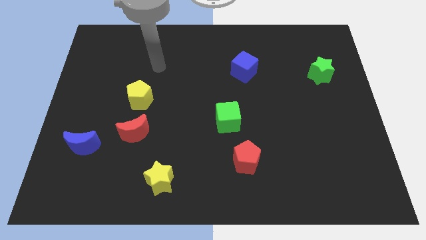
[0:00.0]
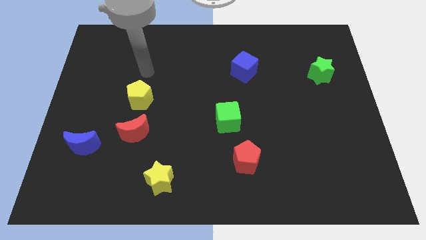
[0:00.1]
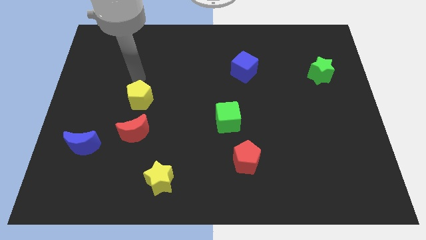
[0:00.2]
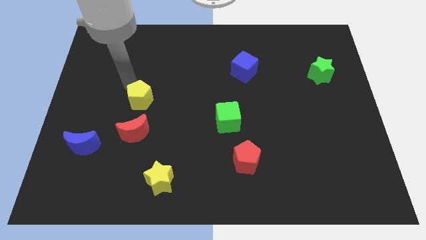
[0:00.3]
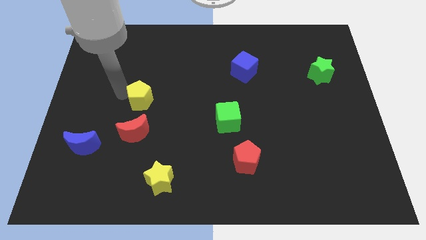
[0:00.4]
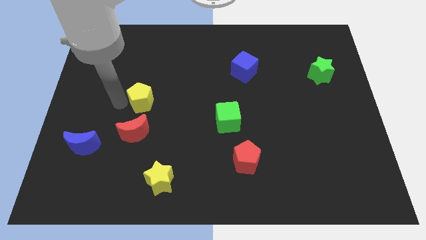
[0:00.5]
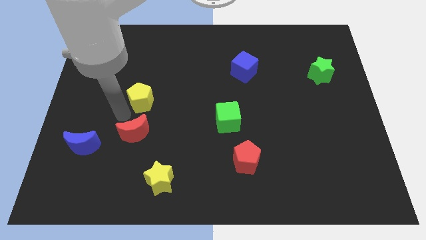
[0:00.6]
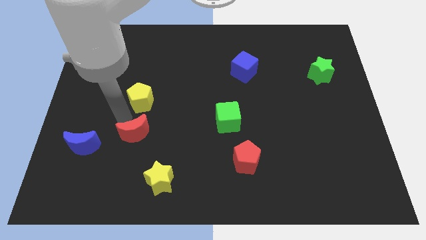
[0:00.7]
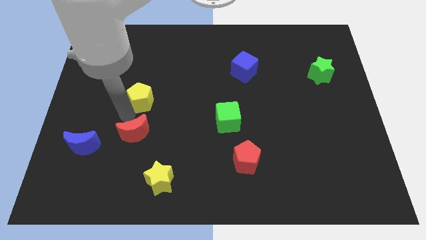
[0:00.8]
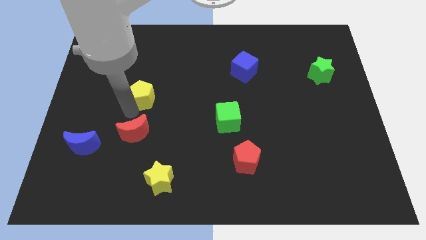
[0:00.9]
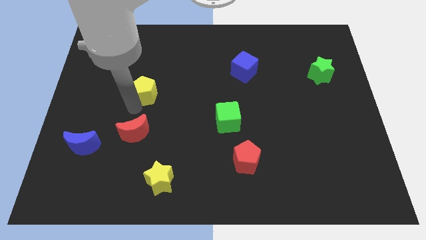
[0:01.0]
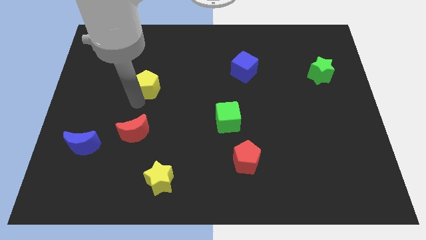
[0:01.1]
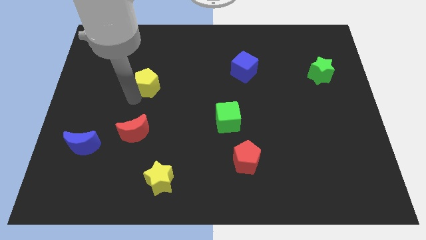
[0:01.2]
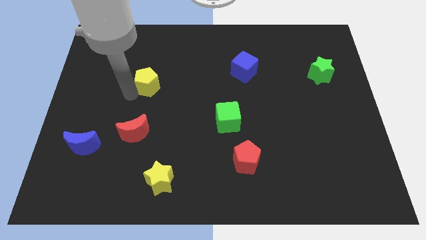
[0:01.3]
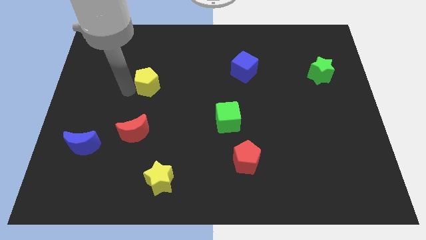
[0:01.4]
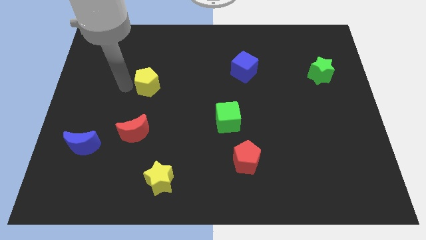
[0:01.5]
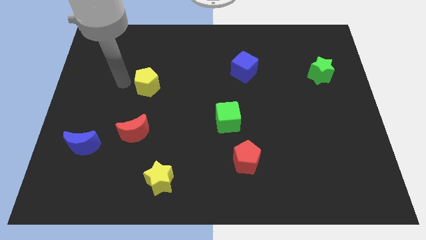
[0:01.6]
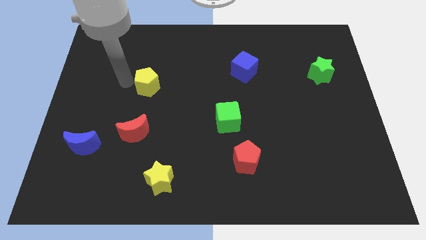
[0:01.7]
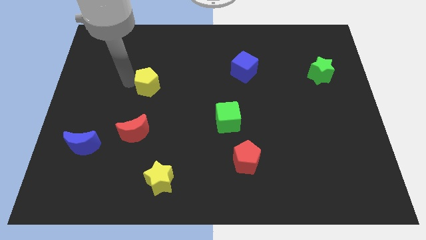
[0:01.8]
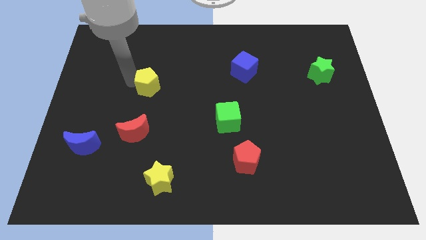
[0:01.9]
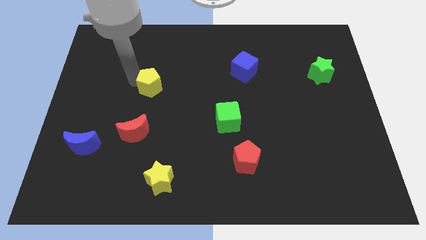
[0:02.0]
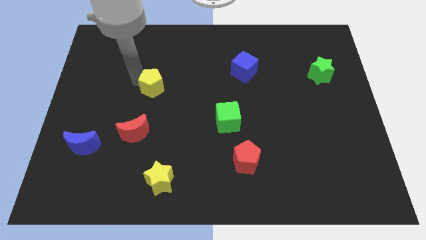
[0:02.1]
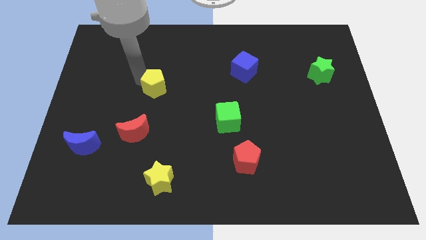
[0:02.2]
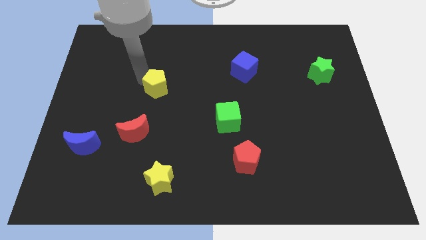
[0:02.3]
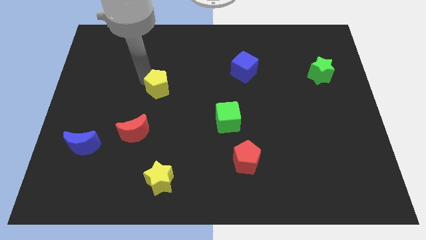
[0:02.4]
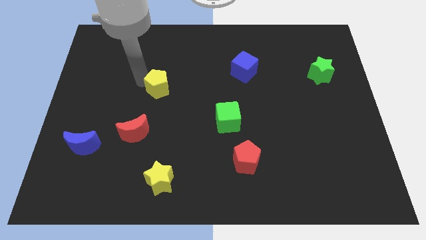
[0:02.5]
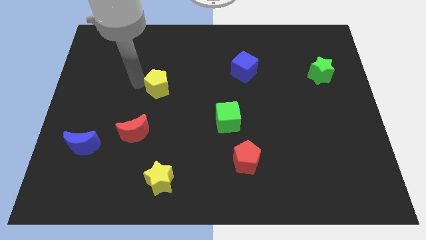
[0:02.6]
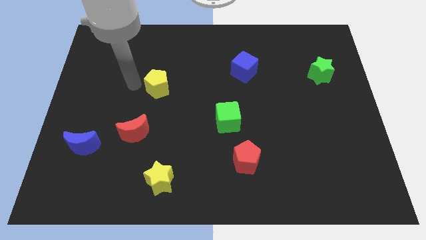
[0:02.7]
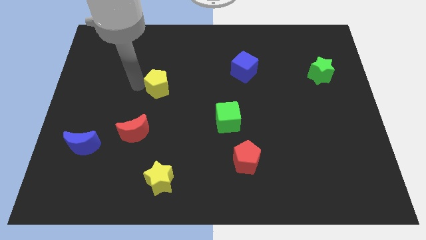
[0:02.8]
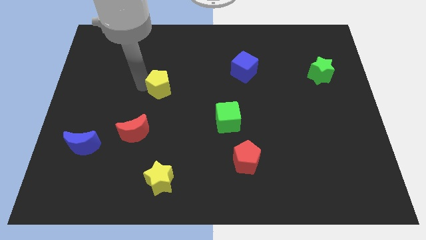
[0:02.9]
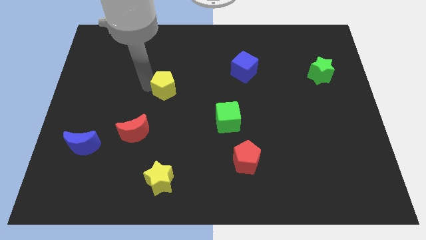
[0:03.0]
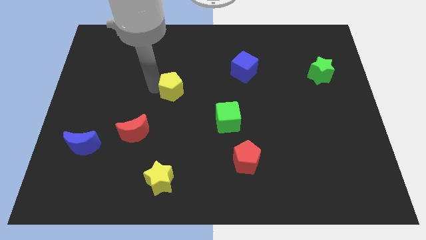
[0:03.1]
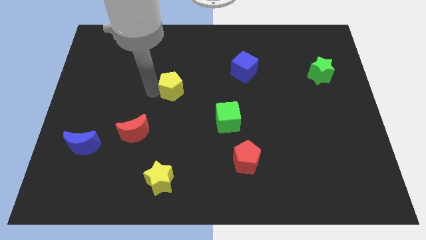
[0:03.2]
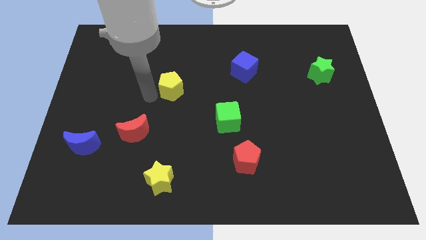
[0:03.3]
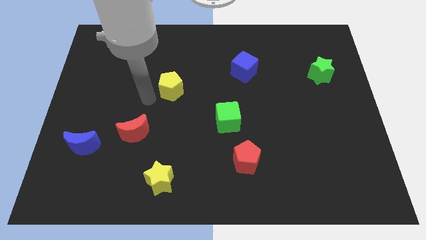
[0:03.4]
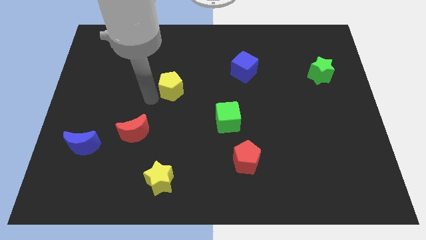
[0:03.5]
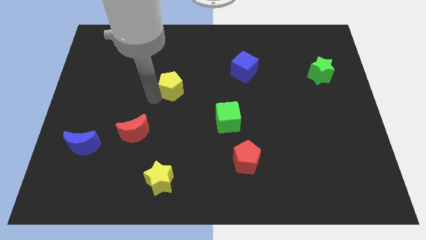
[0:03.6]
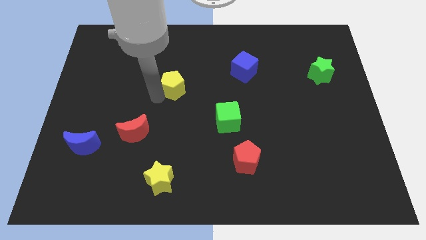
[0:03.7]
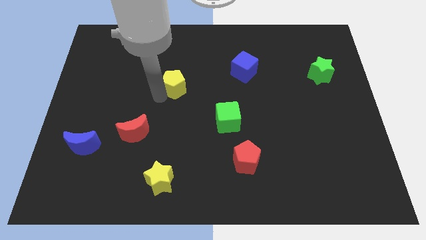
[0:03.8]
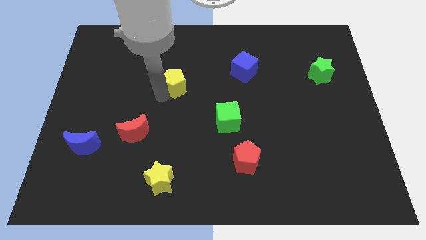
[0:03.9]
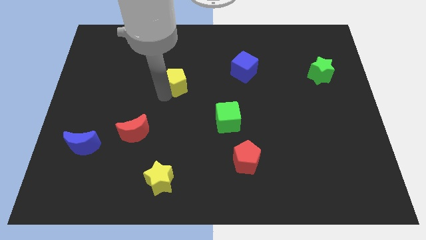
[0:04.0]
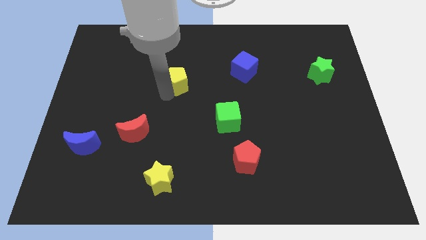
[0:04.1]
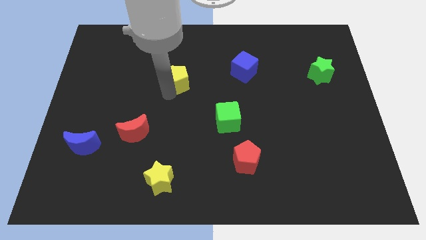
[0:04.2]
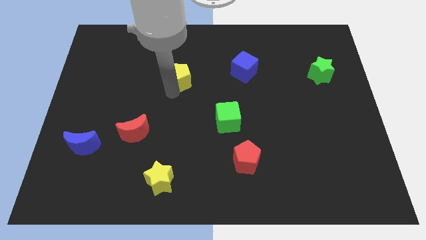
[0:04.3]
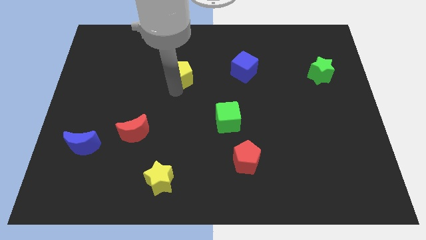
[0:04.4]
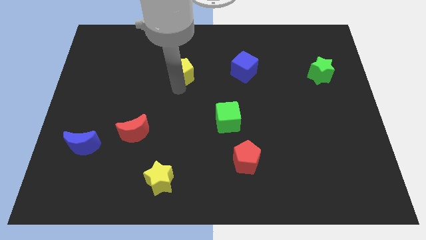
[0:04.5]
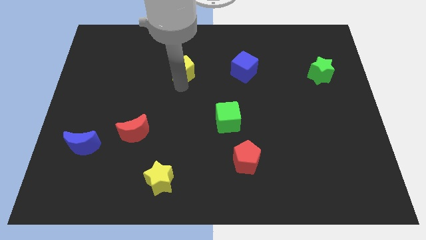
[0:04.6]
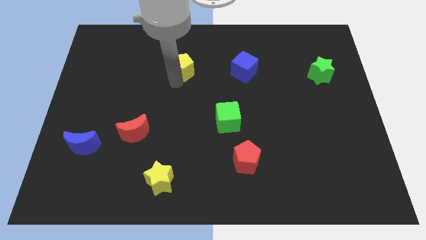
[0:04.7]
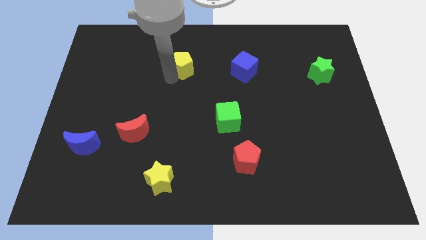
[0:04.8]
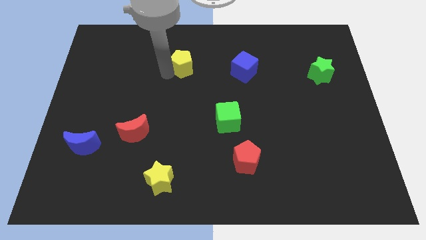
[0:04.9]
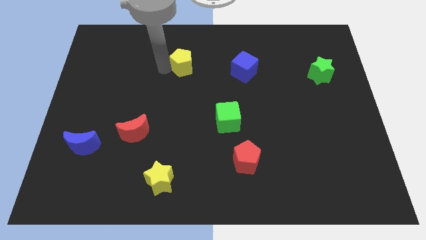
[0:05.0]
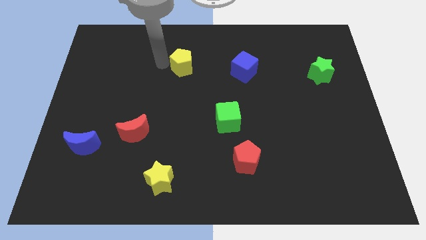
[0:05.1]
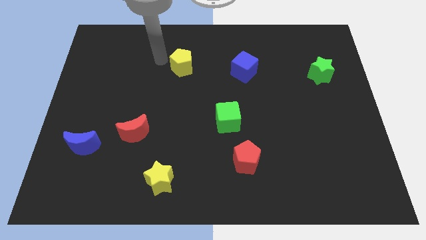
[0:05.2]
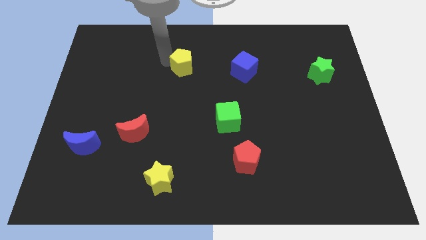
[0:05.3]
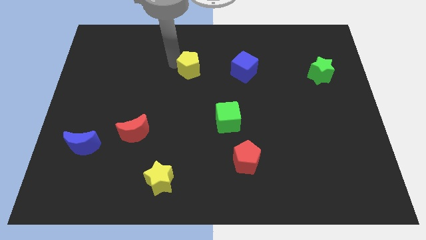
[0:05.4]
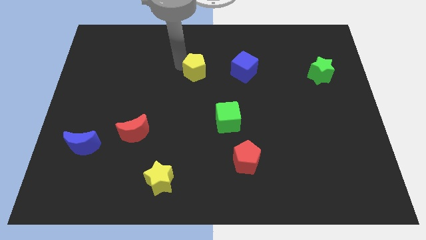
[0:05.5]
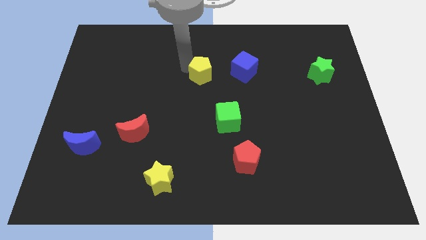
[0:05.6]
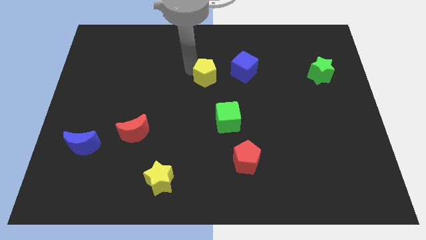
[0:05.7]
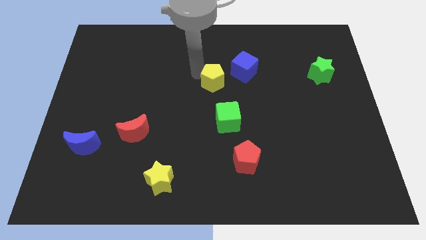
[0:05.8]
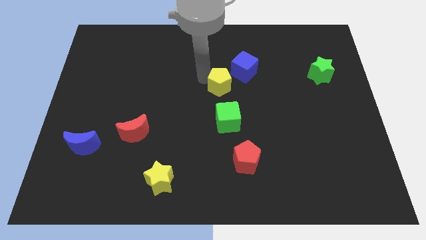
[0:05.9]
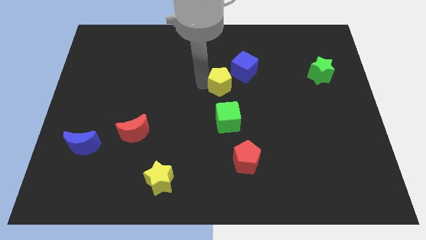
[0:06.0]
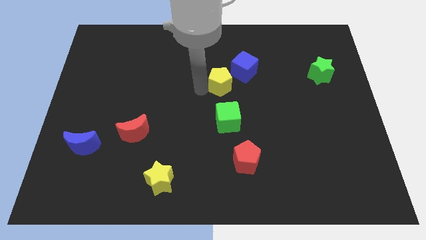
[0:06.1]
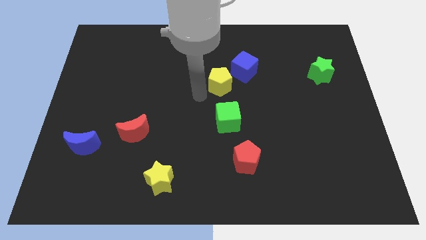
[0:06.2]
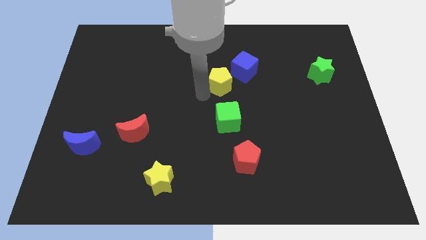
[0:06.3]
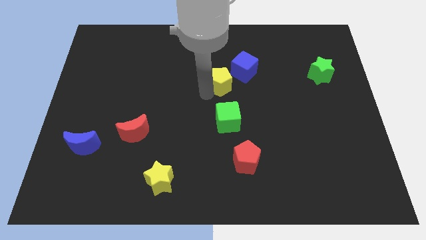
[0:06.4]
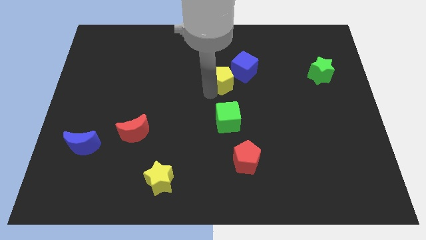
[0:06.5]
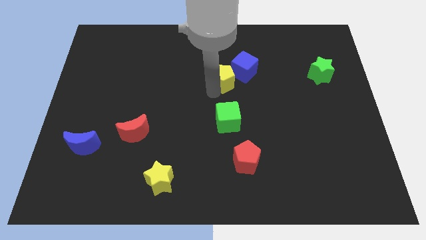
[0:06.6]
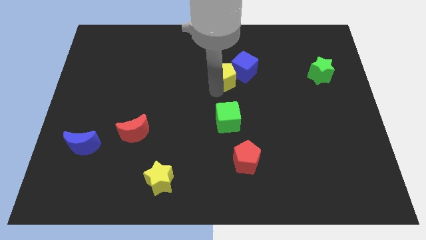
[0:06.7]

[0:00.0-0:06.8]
push the yellow pentagon close to the blue cube

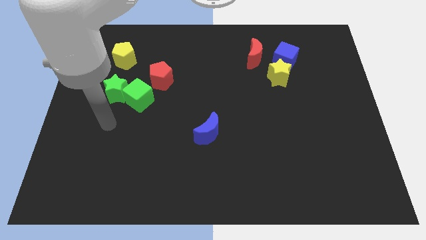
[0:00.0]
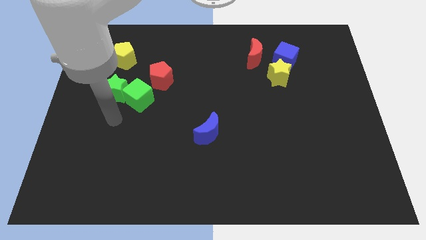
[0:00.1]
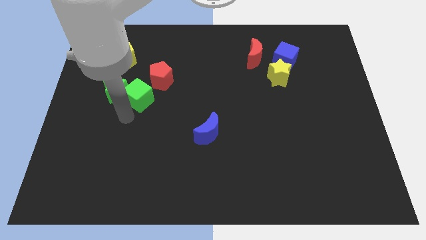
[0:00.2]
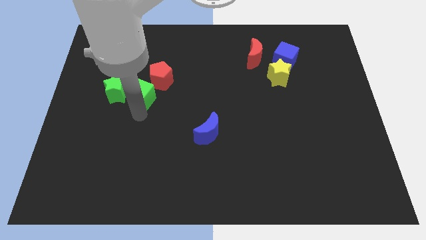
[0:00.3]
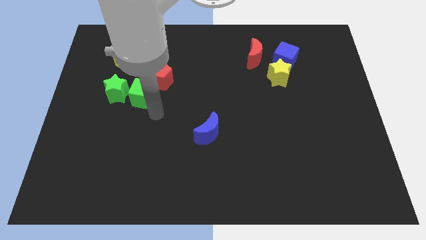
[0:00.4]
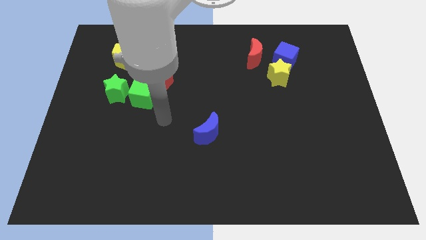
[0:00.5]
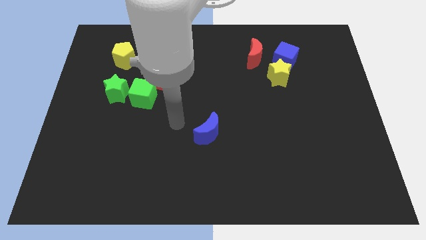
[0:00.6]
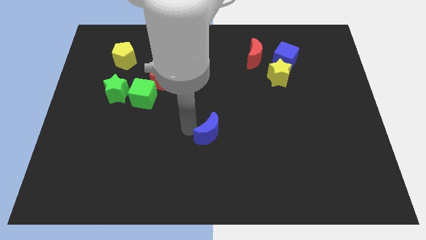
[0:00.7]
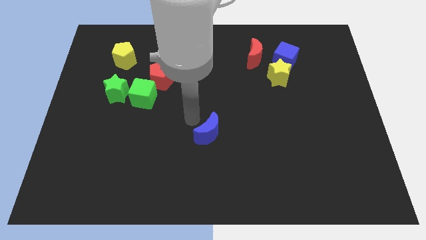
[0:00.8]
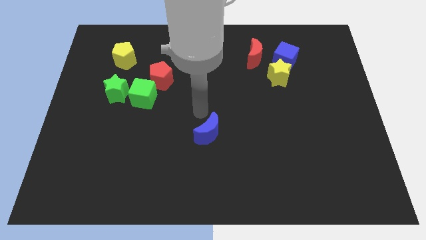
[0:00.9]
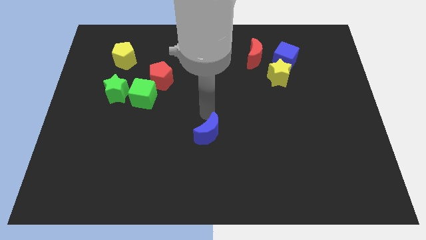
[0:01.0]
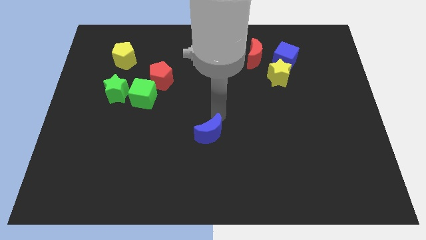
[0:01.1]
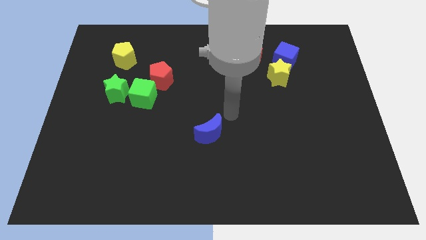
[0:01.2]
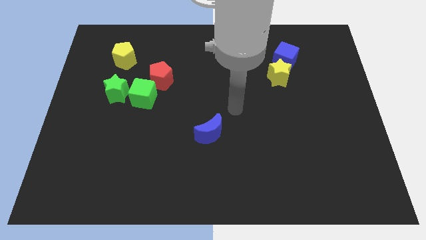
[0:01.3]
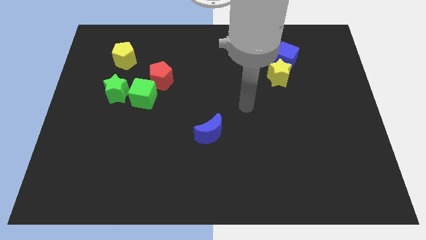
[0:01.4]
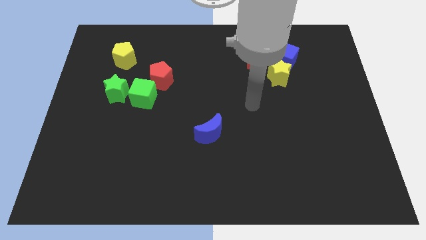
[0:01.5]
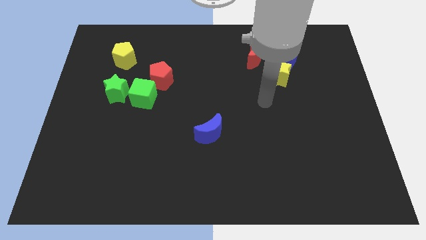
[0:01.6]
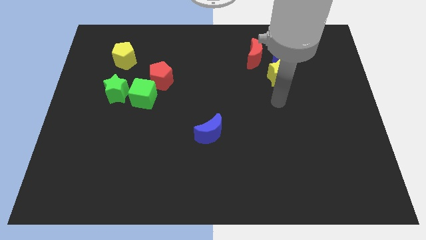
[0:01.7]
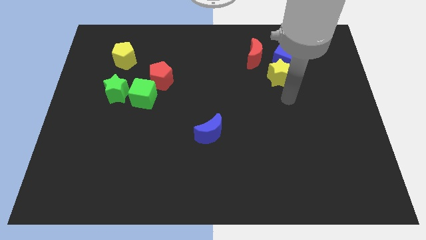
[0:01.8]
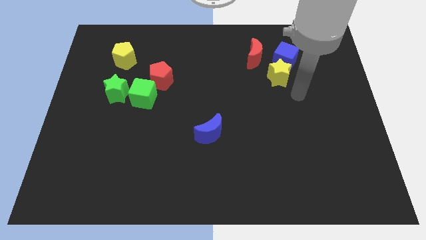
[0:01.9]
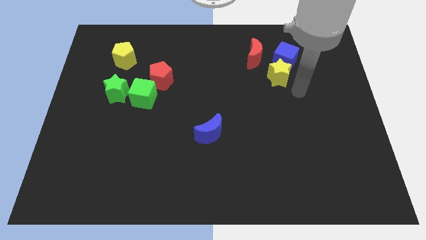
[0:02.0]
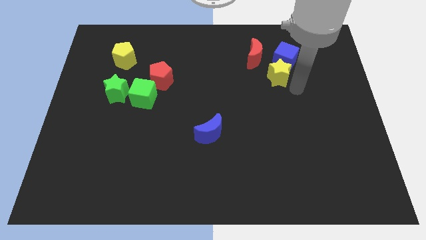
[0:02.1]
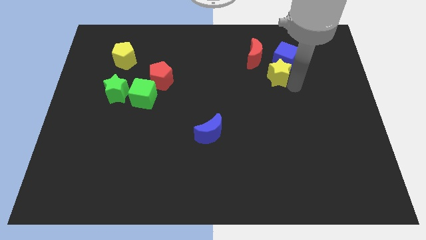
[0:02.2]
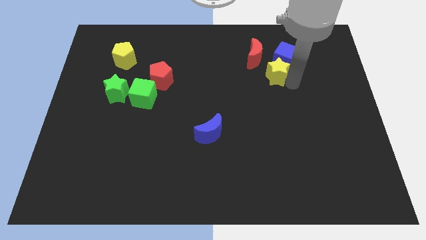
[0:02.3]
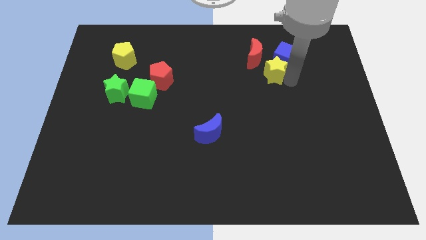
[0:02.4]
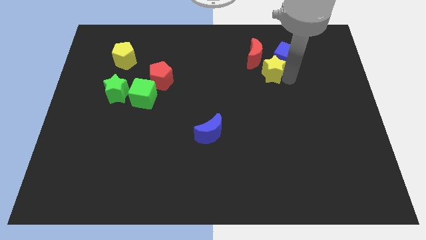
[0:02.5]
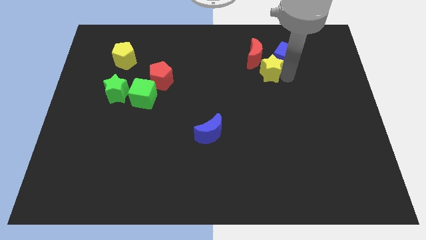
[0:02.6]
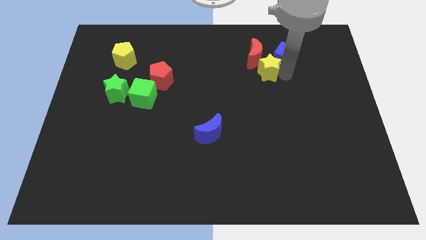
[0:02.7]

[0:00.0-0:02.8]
slide the yellow star towards the red moon
